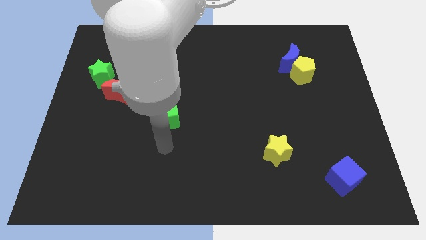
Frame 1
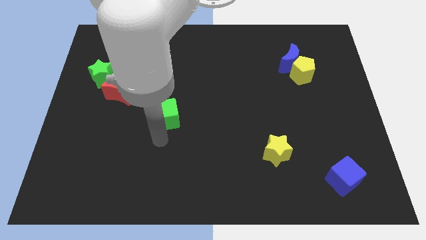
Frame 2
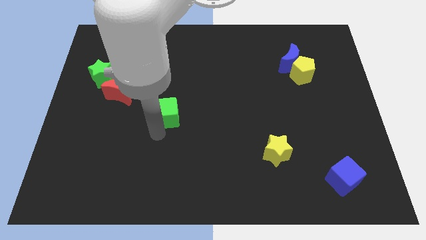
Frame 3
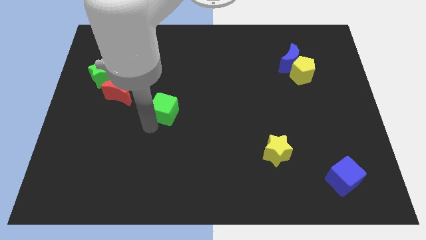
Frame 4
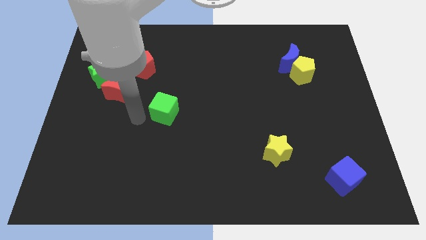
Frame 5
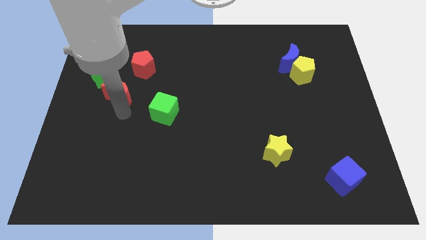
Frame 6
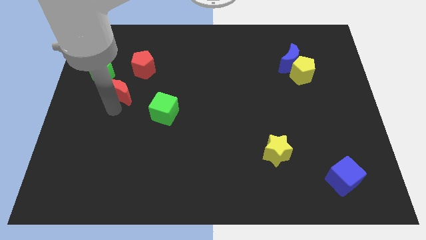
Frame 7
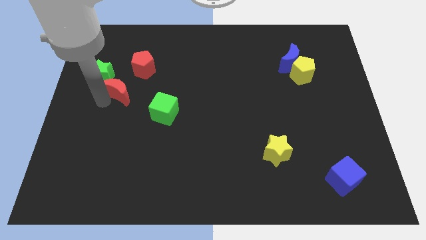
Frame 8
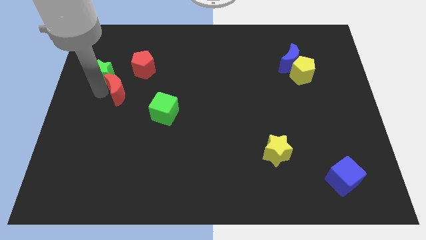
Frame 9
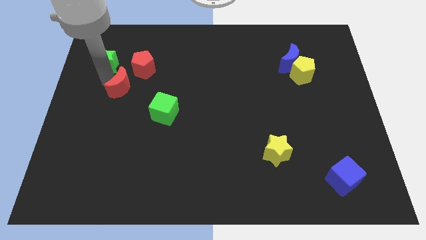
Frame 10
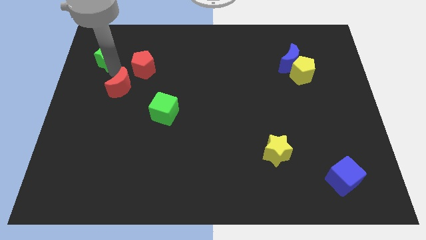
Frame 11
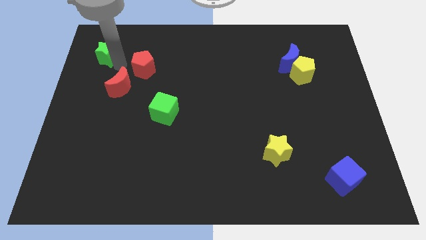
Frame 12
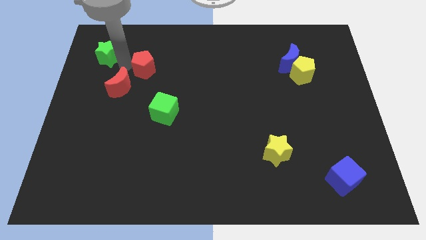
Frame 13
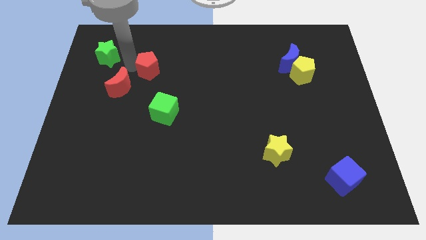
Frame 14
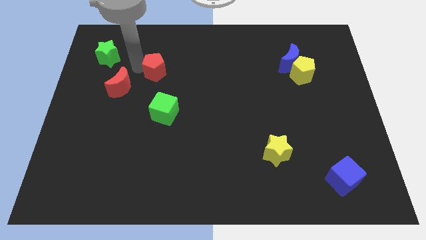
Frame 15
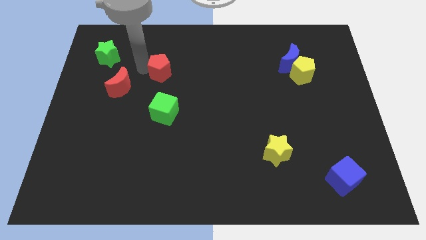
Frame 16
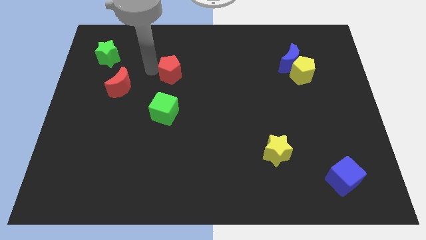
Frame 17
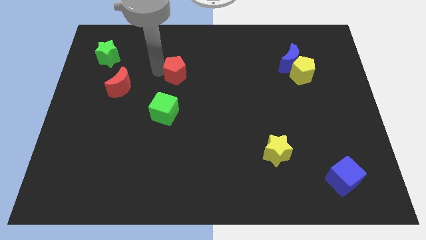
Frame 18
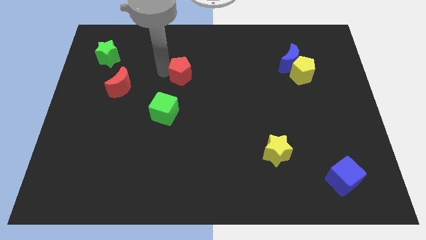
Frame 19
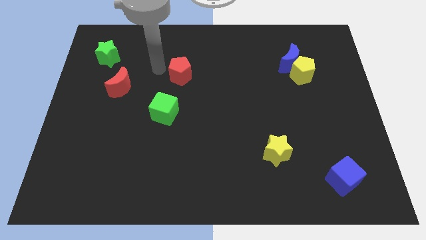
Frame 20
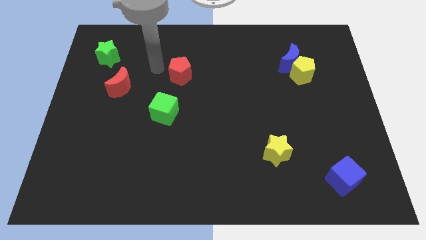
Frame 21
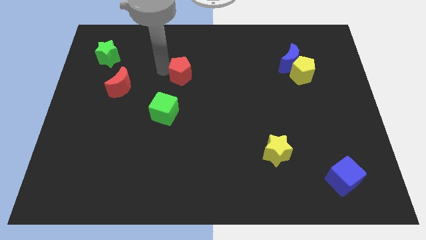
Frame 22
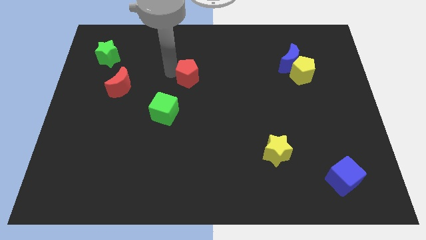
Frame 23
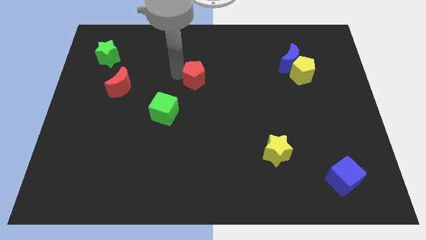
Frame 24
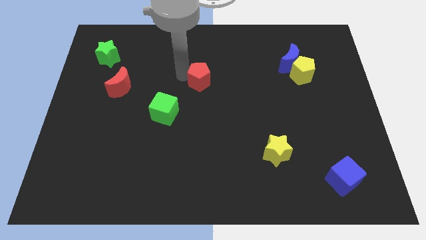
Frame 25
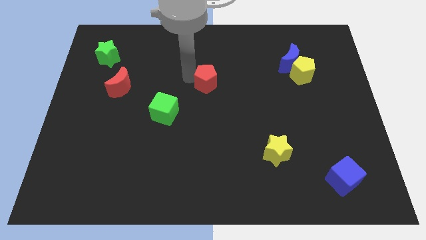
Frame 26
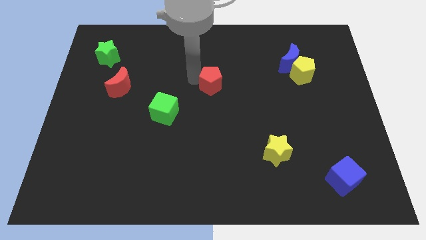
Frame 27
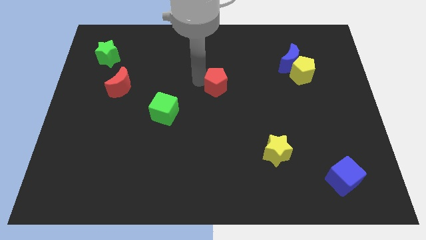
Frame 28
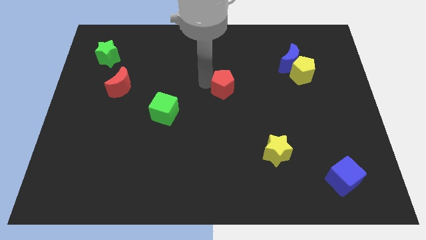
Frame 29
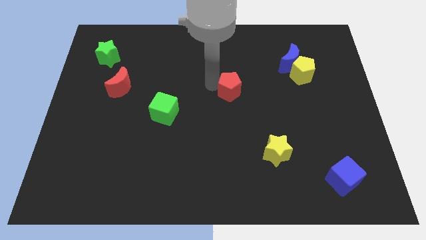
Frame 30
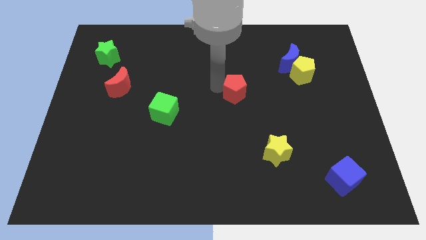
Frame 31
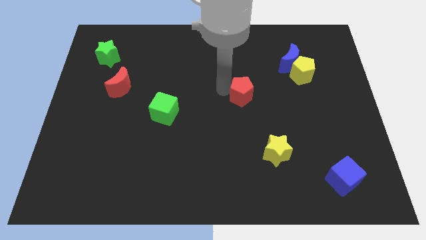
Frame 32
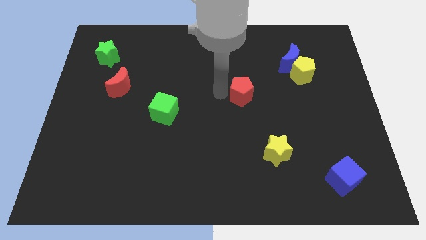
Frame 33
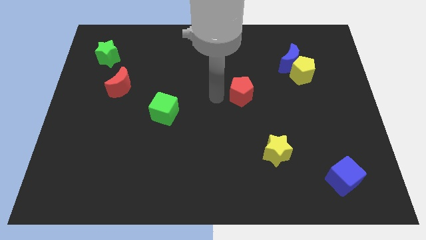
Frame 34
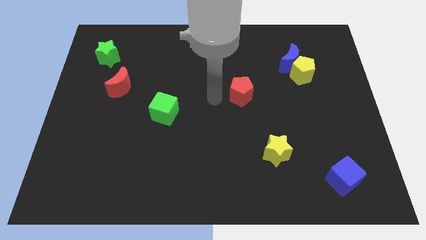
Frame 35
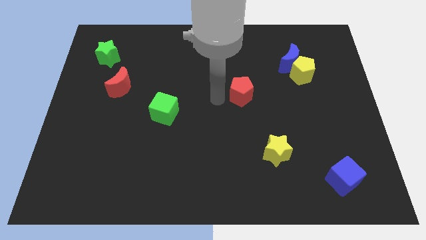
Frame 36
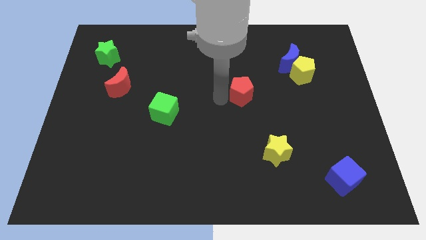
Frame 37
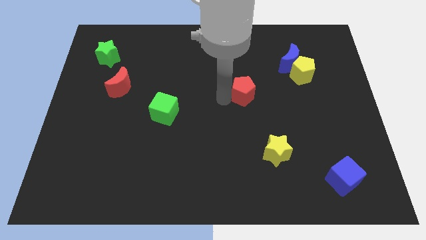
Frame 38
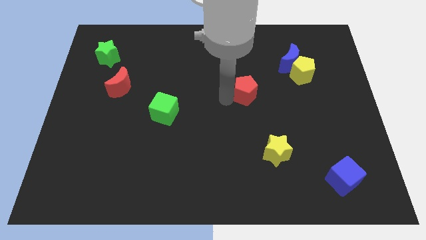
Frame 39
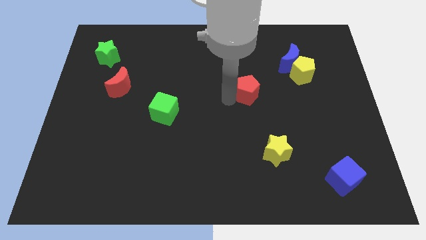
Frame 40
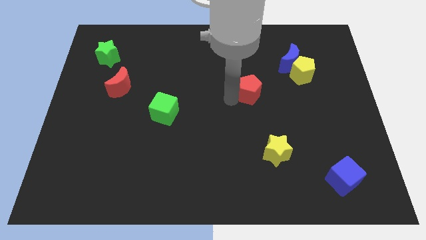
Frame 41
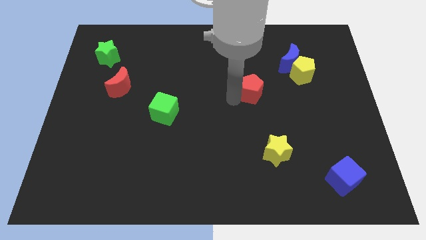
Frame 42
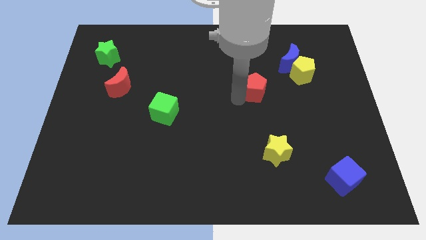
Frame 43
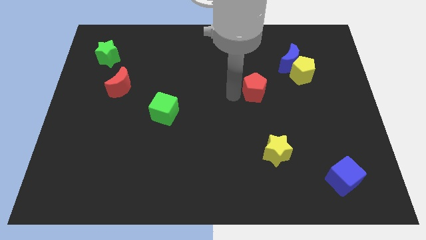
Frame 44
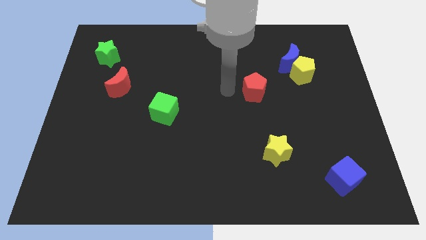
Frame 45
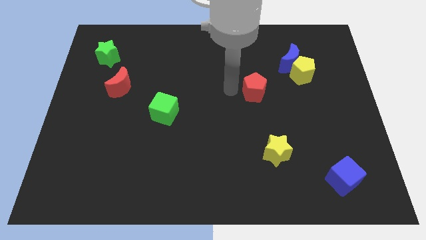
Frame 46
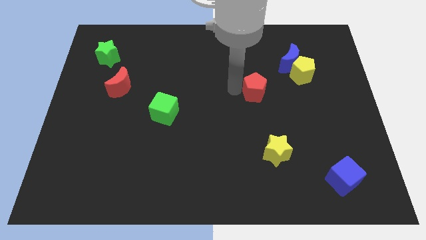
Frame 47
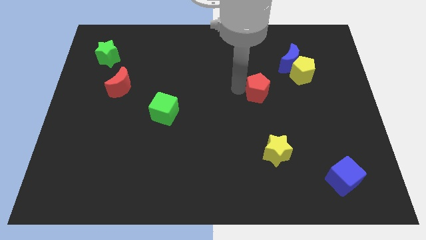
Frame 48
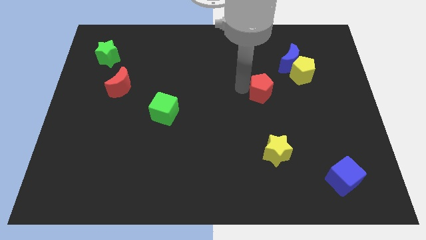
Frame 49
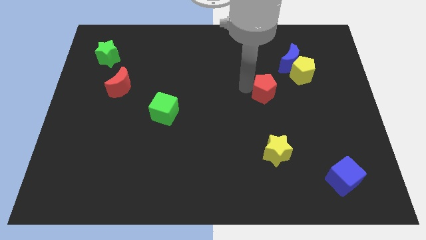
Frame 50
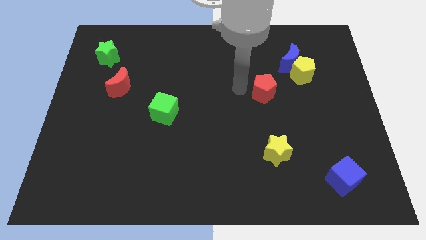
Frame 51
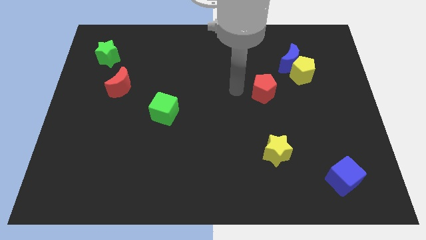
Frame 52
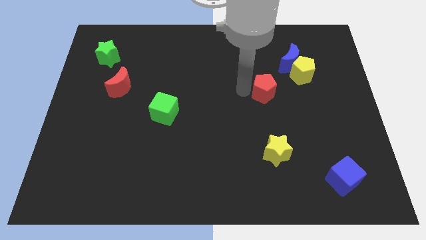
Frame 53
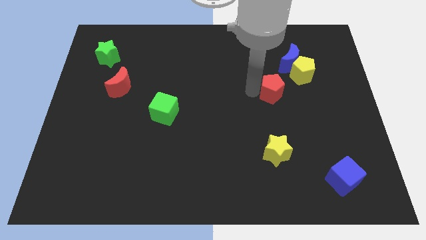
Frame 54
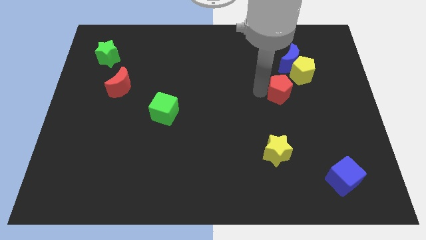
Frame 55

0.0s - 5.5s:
push the red pentagon to the bottom of the blue moon

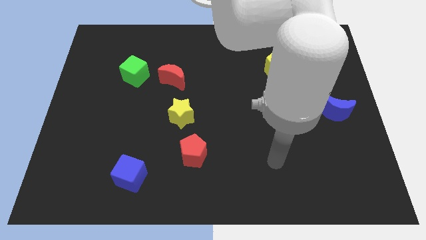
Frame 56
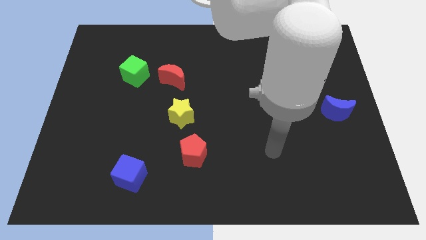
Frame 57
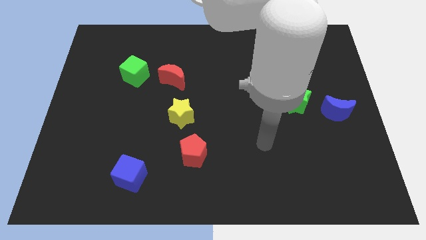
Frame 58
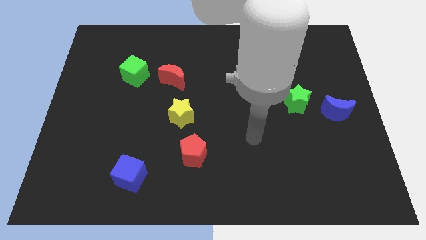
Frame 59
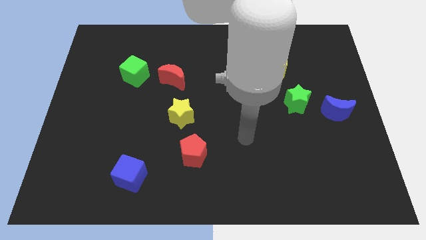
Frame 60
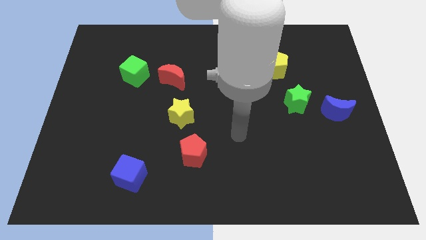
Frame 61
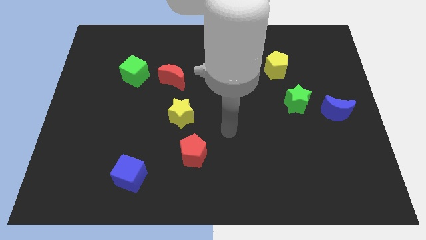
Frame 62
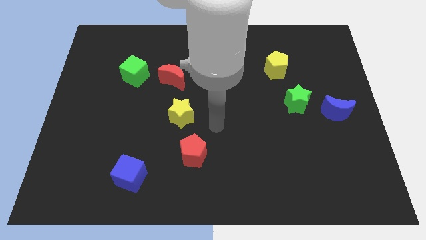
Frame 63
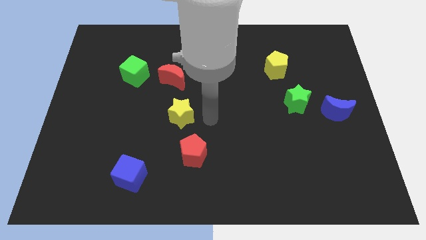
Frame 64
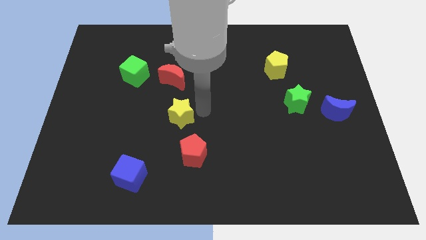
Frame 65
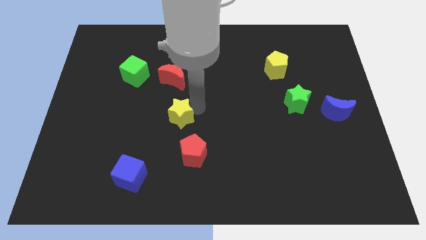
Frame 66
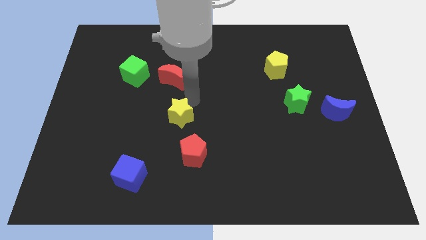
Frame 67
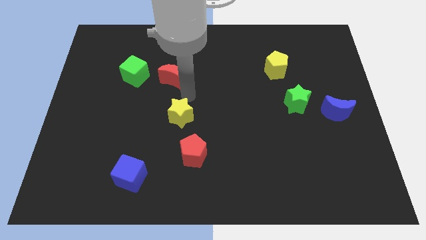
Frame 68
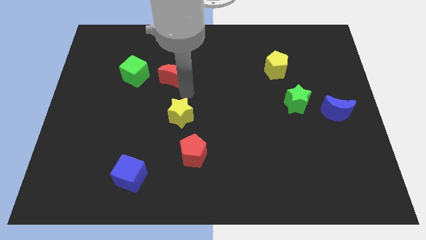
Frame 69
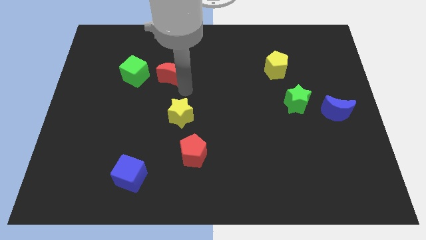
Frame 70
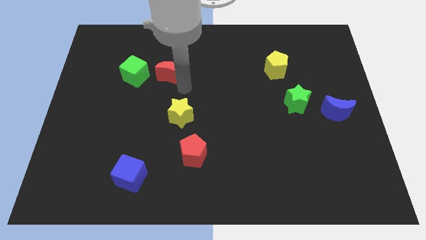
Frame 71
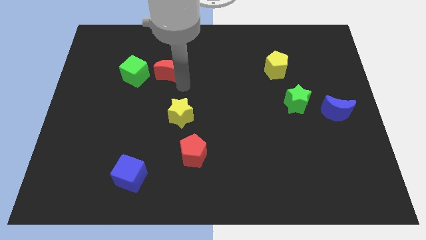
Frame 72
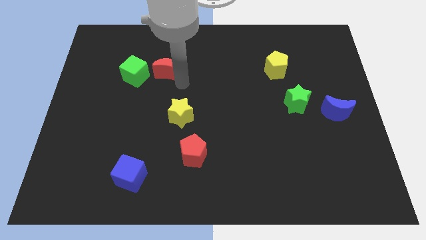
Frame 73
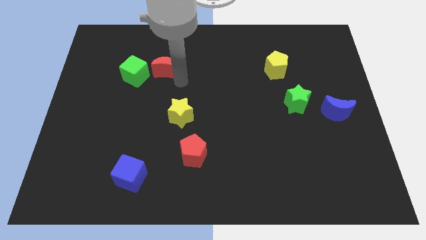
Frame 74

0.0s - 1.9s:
move the red moon to the top right of the green cube

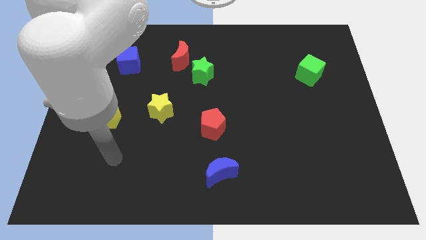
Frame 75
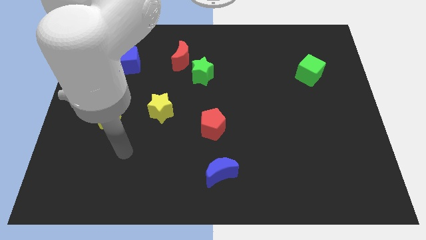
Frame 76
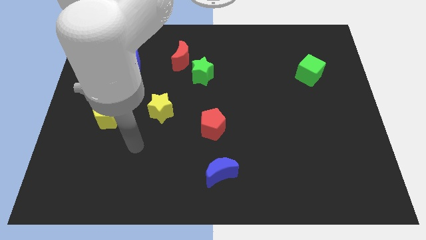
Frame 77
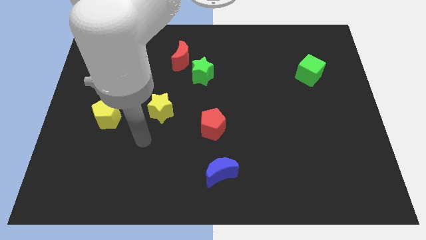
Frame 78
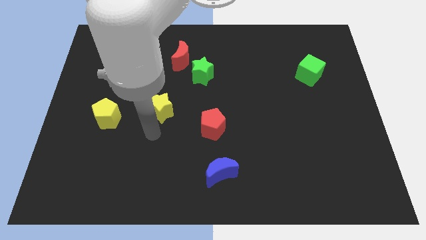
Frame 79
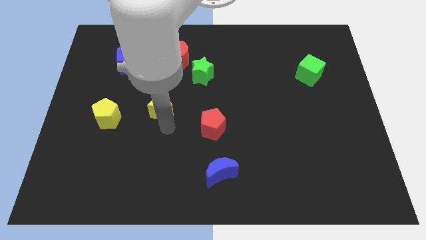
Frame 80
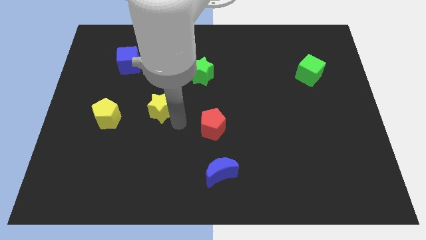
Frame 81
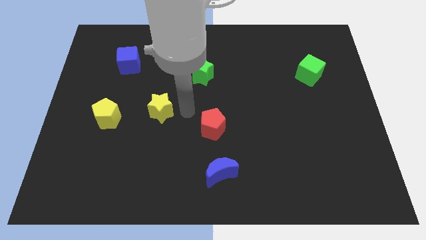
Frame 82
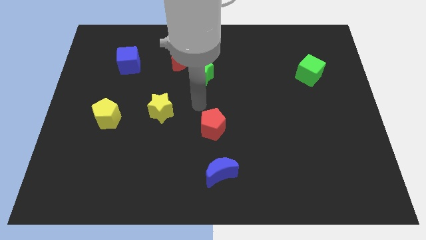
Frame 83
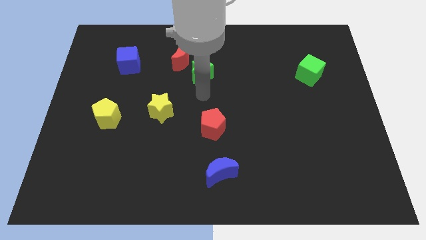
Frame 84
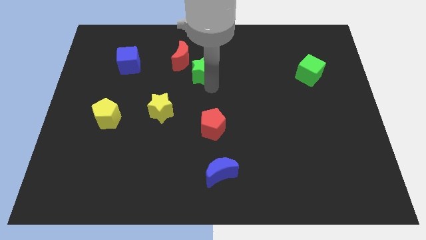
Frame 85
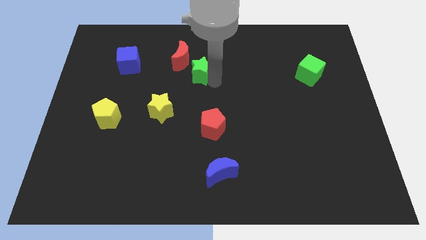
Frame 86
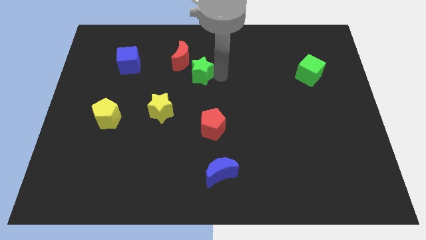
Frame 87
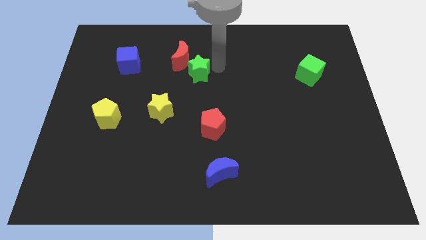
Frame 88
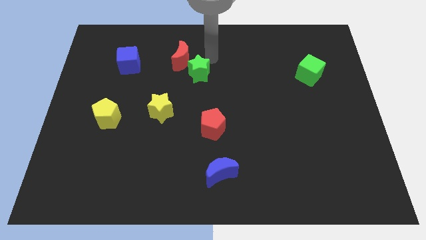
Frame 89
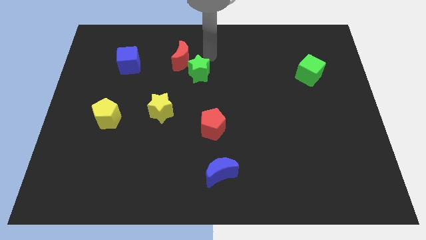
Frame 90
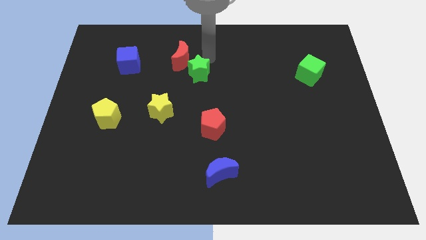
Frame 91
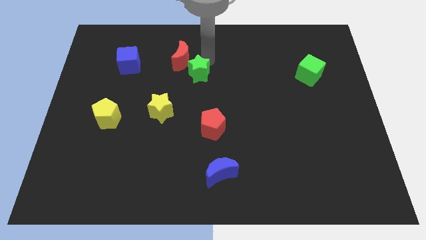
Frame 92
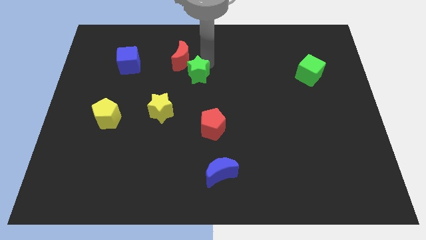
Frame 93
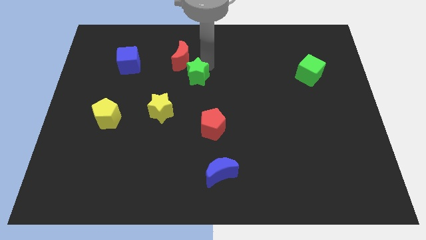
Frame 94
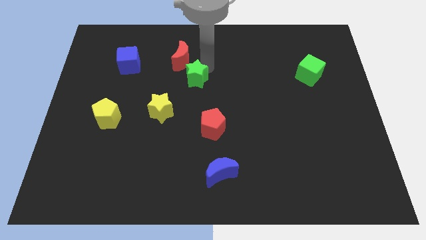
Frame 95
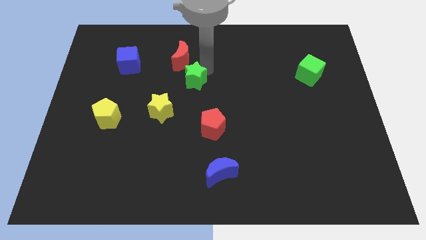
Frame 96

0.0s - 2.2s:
put the green star to the top right side of the yellow star
